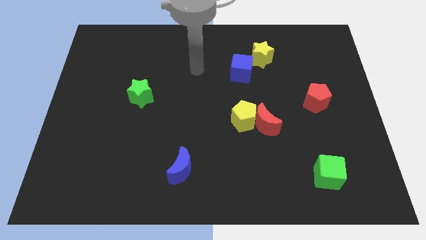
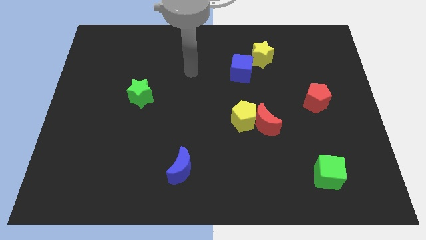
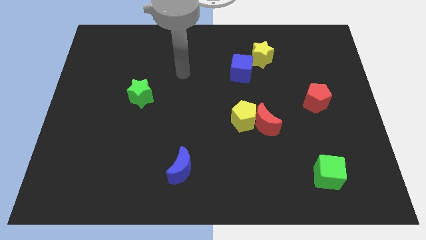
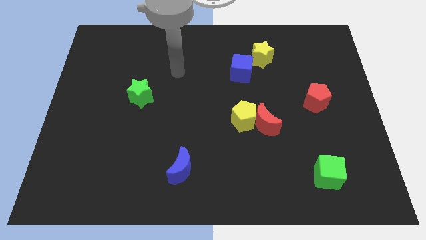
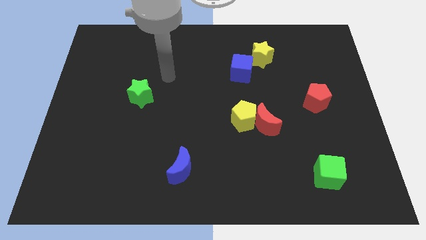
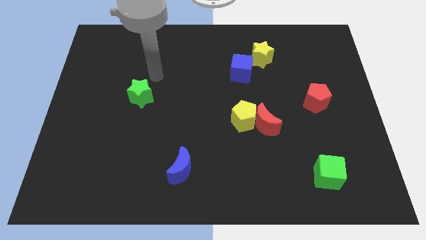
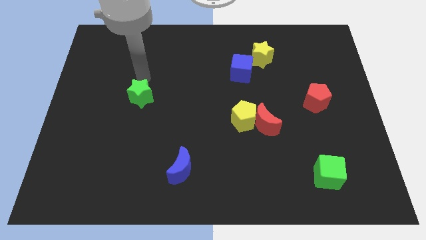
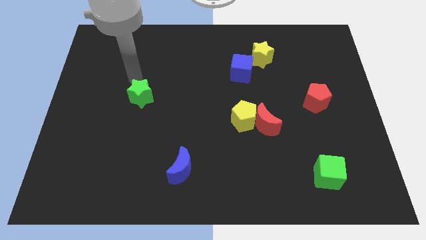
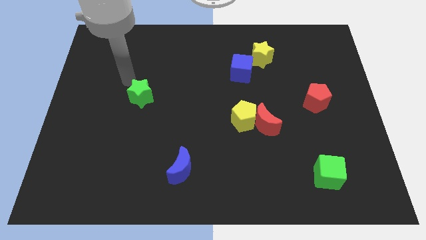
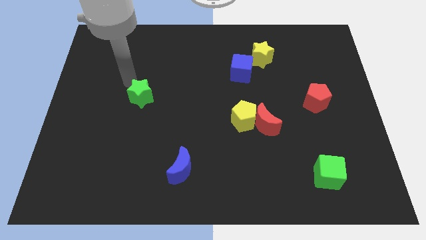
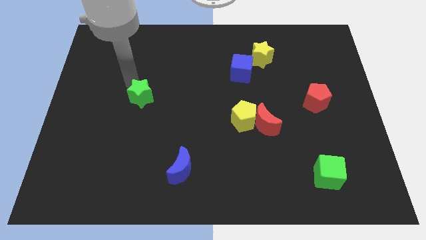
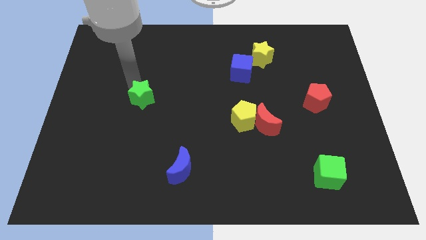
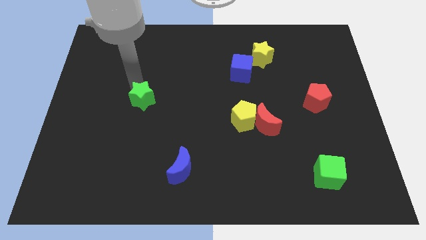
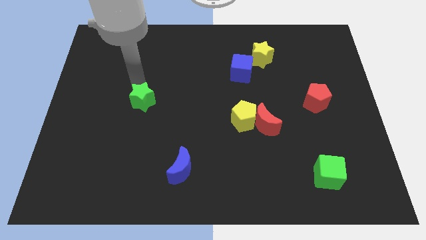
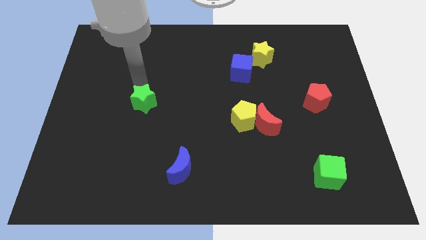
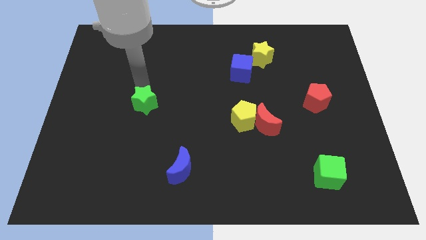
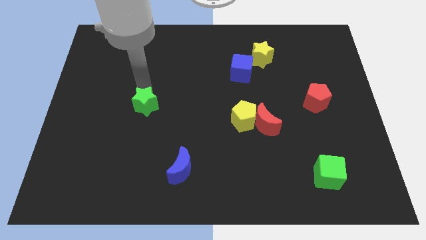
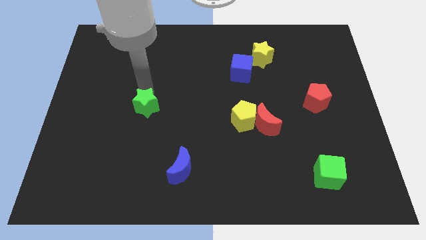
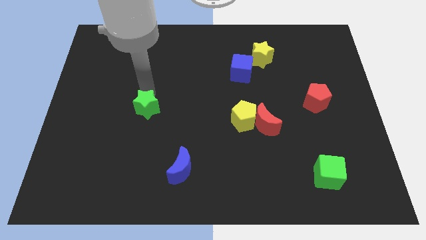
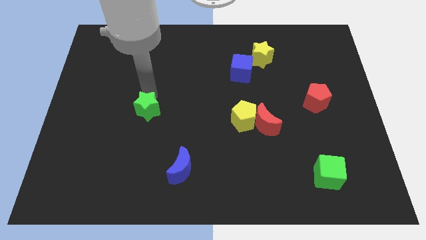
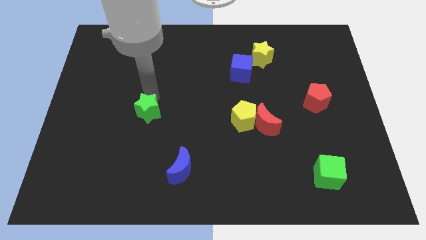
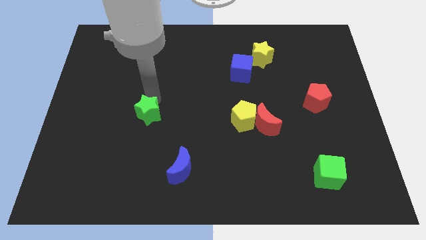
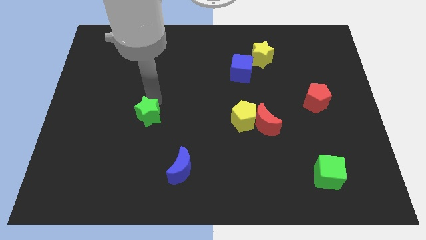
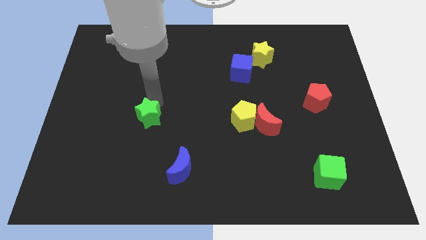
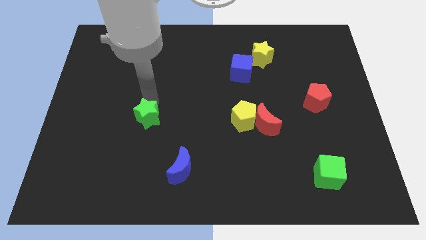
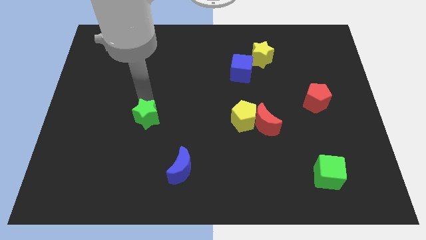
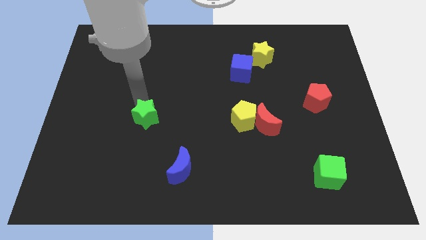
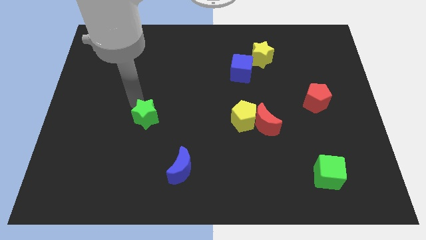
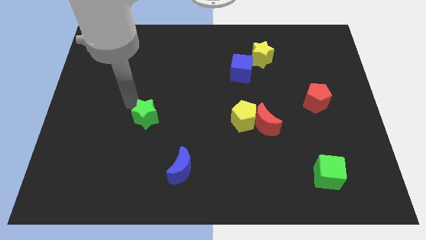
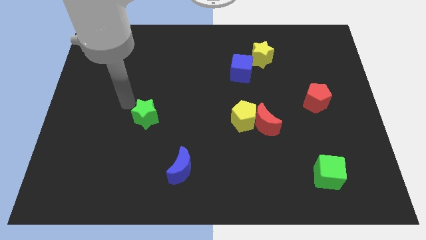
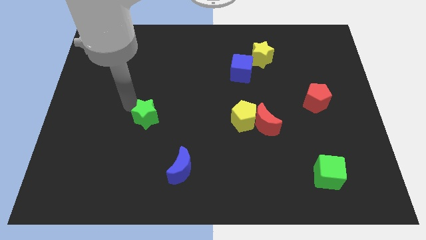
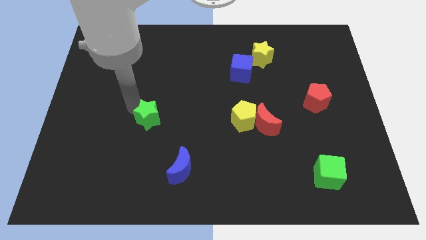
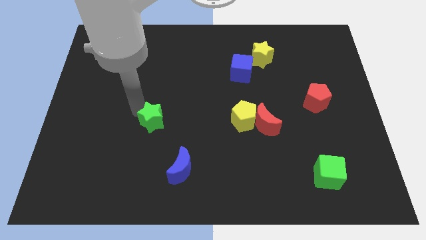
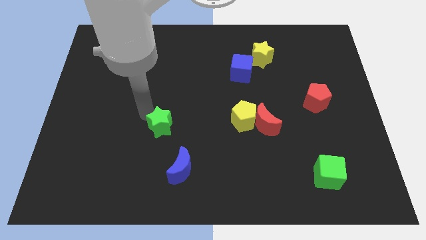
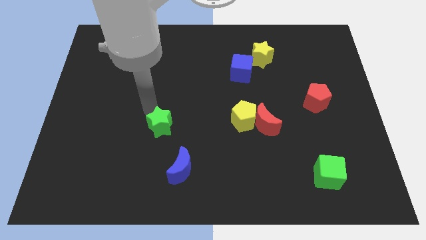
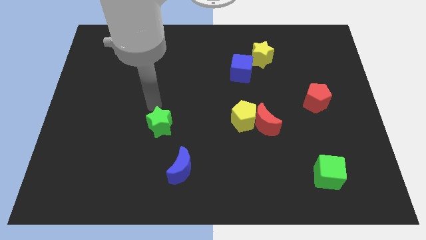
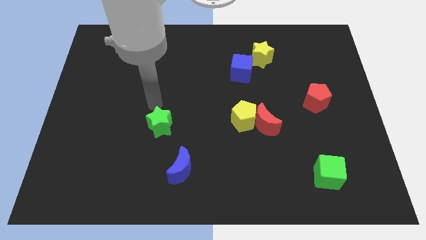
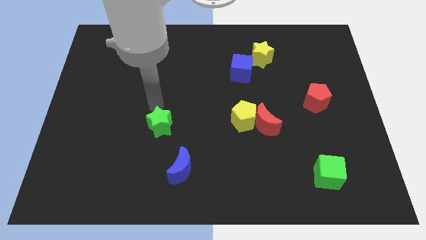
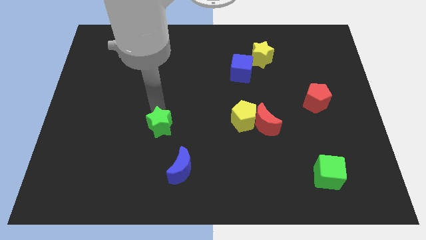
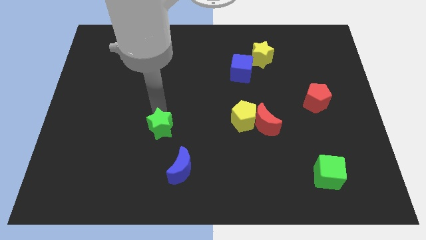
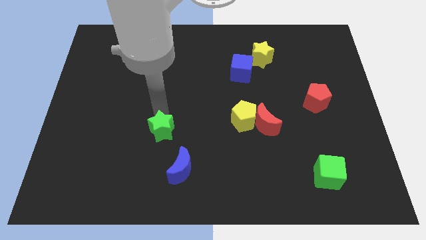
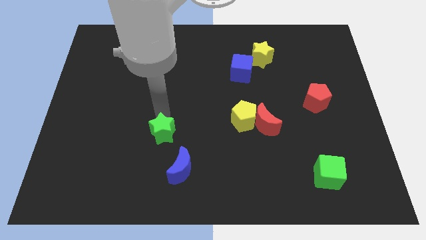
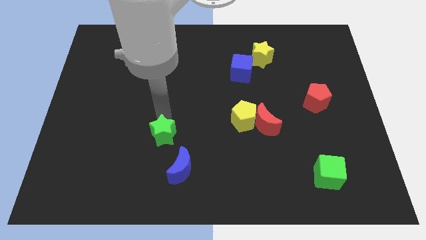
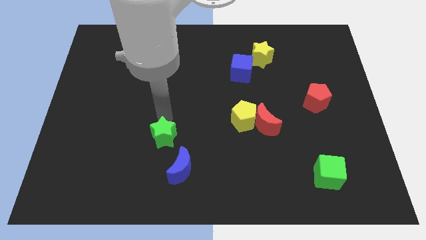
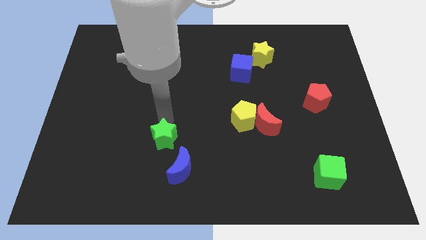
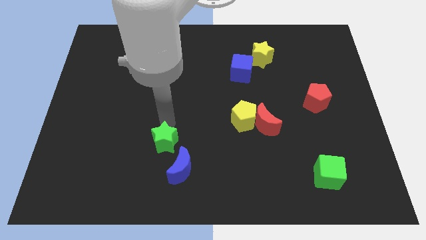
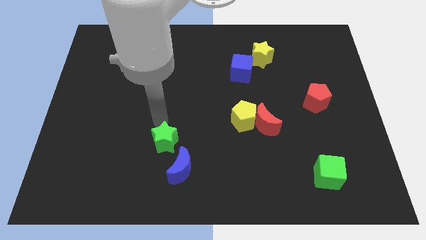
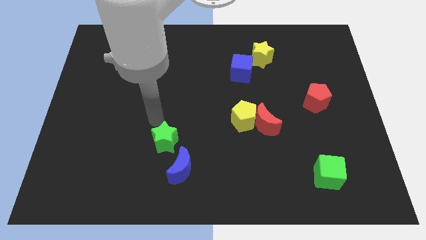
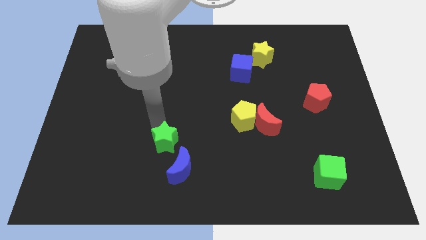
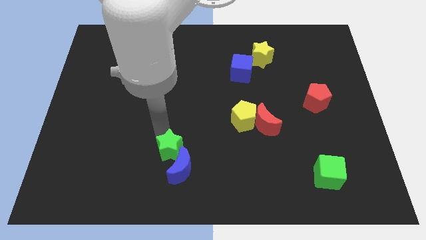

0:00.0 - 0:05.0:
move the green star close to the blue moon

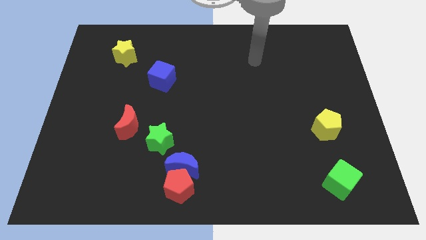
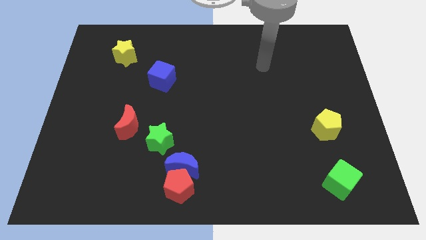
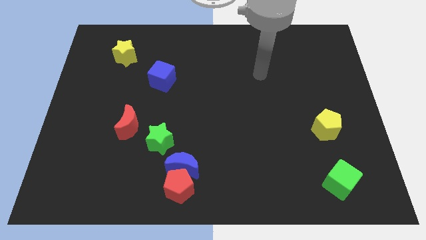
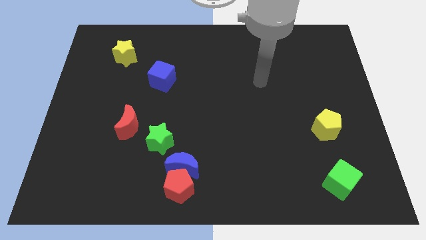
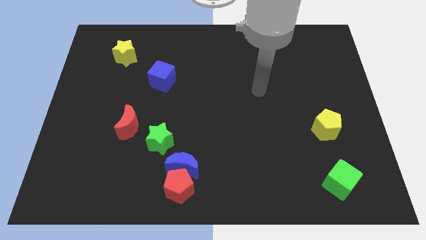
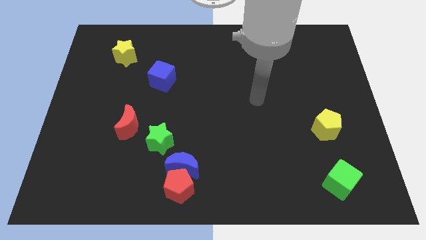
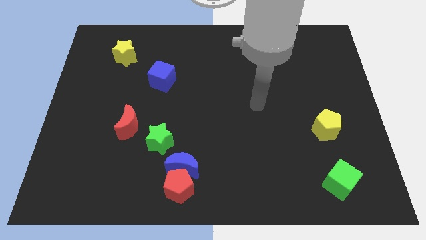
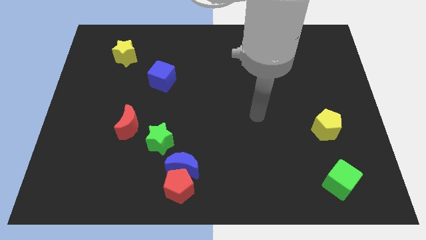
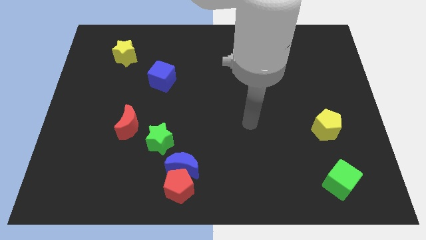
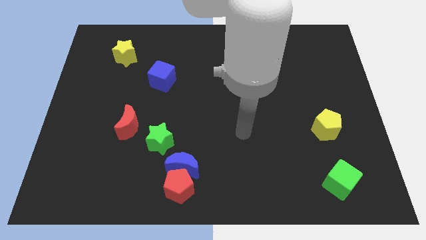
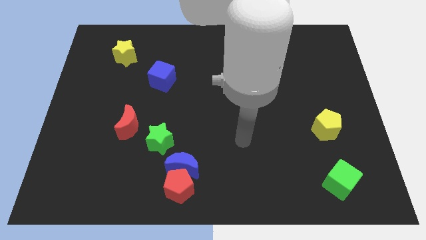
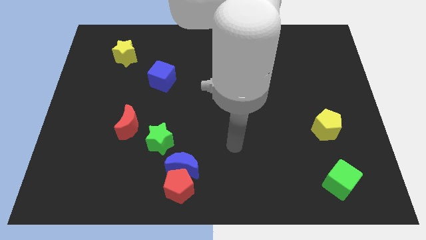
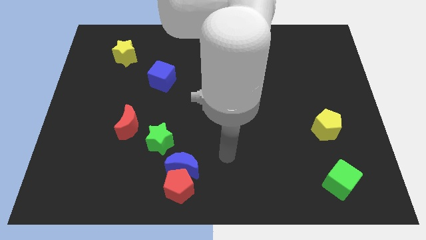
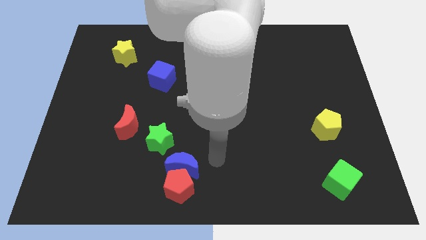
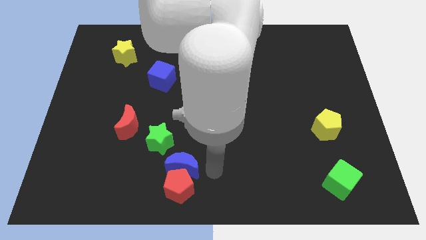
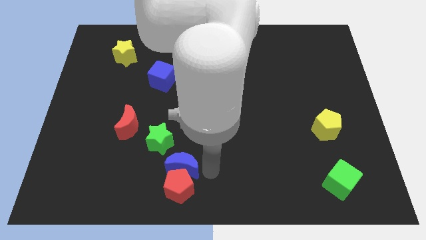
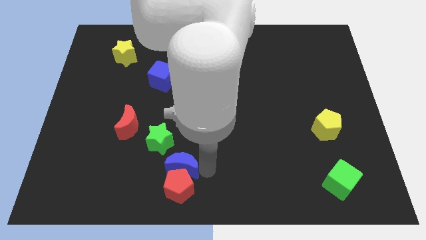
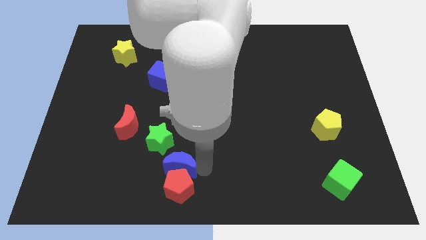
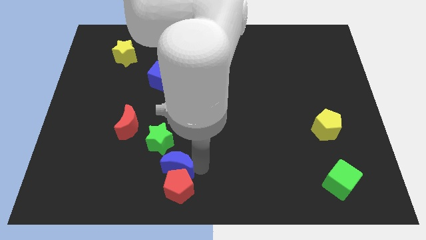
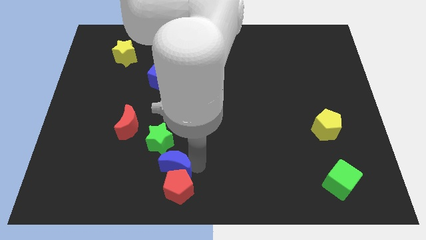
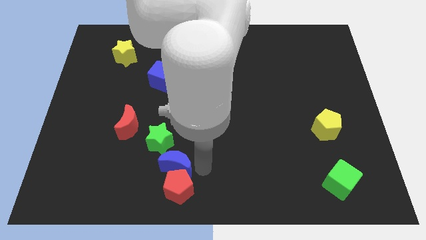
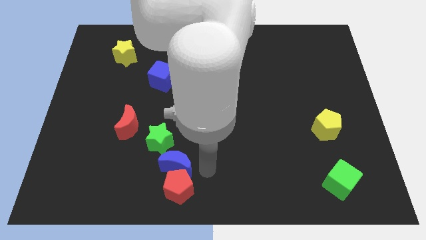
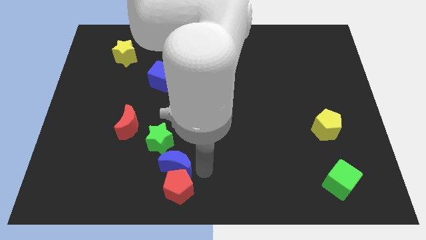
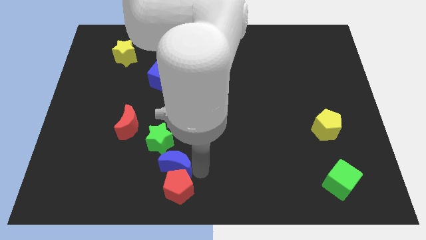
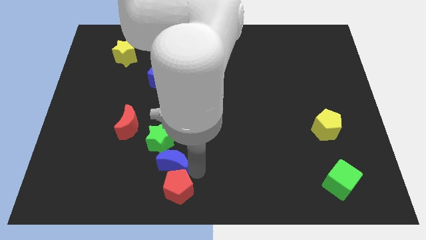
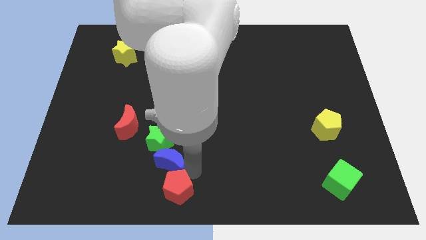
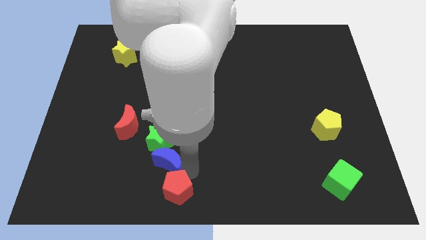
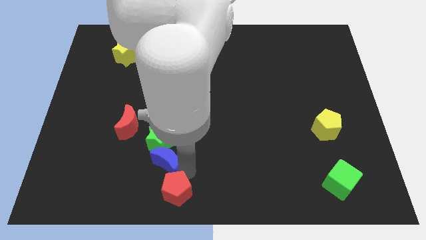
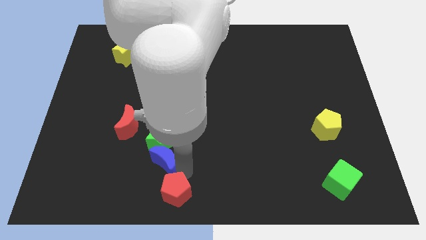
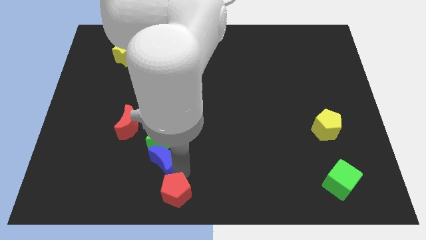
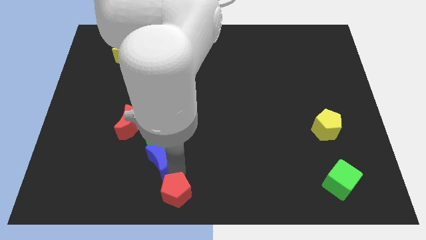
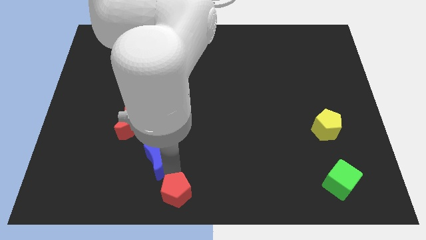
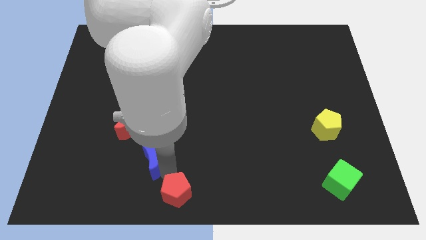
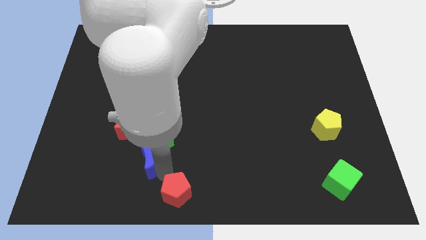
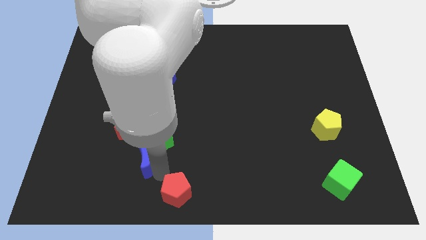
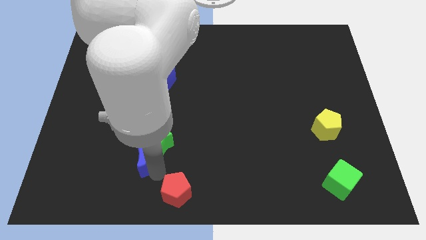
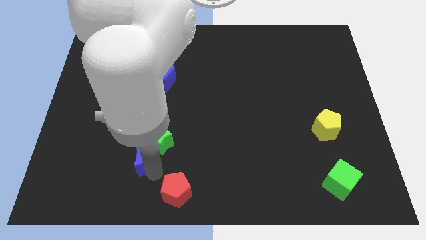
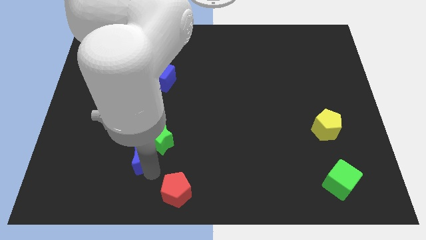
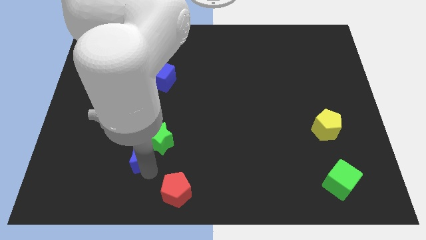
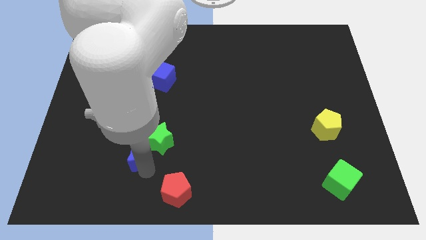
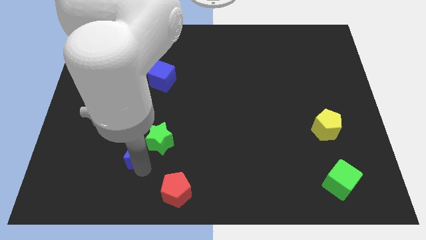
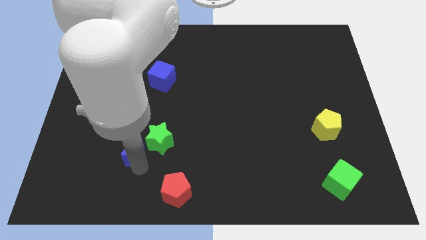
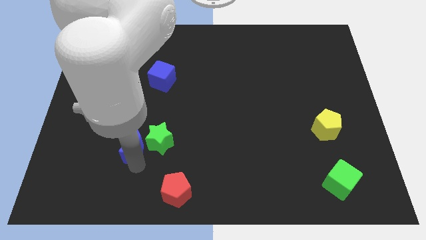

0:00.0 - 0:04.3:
move the blue moon close to the red moon
